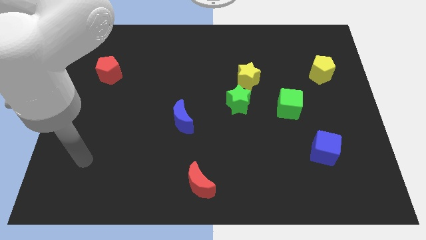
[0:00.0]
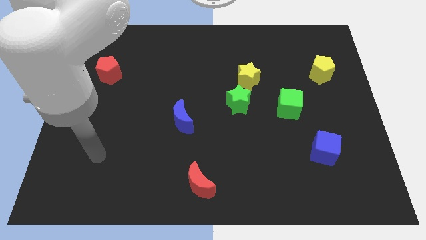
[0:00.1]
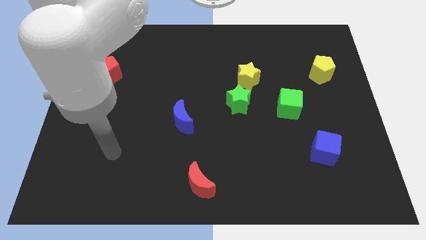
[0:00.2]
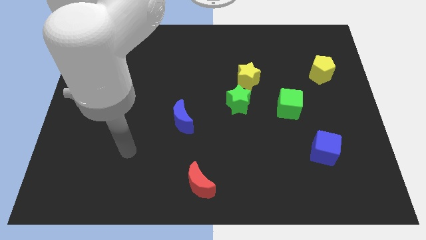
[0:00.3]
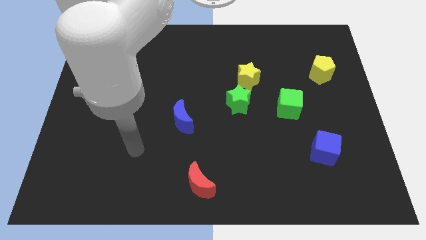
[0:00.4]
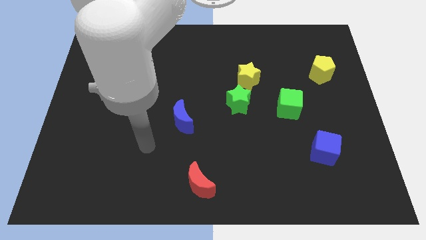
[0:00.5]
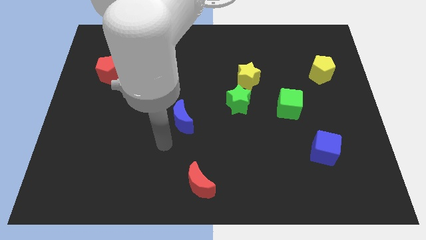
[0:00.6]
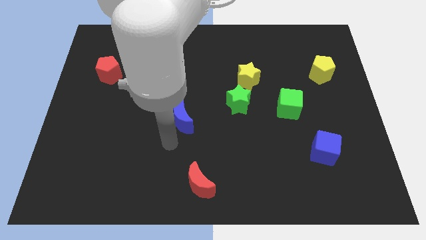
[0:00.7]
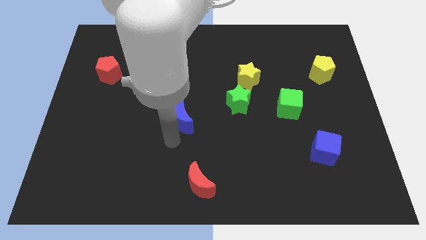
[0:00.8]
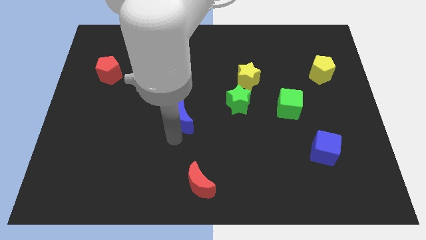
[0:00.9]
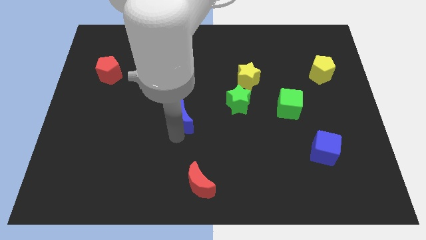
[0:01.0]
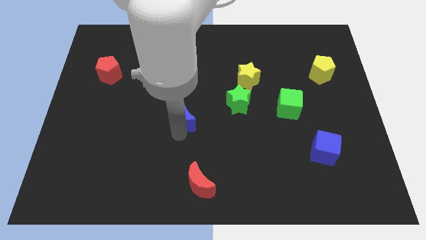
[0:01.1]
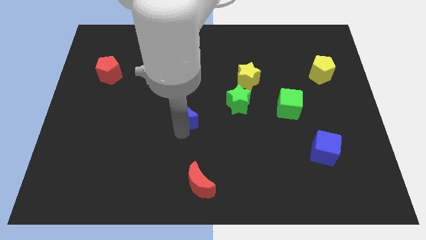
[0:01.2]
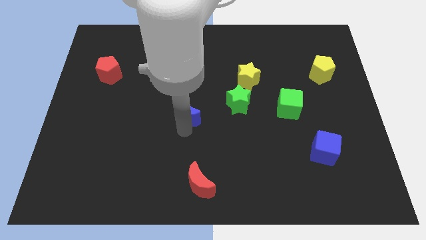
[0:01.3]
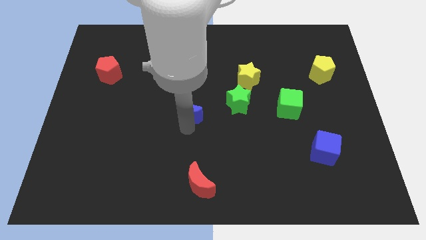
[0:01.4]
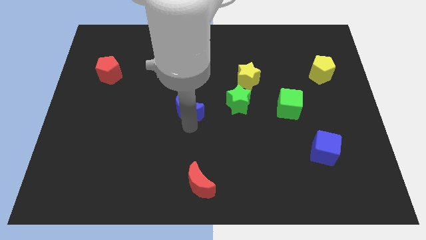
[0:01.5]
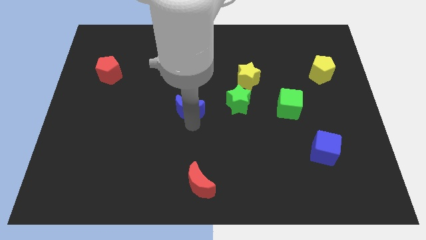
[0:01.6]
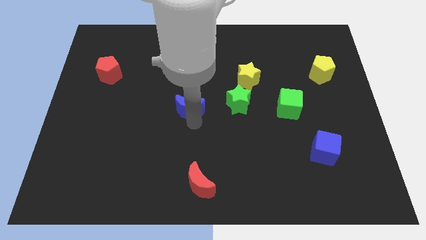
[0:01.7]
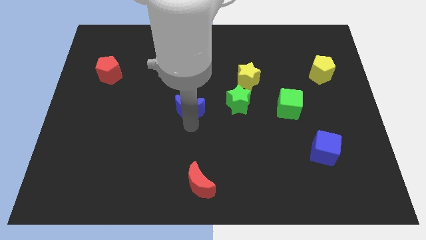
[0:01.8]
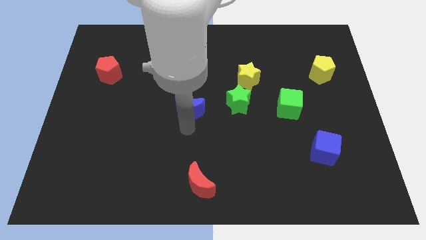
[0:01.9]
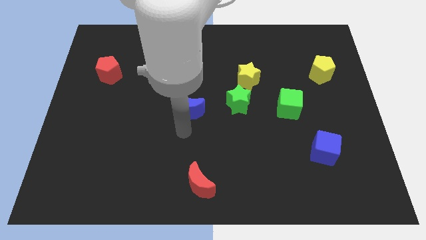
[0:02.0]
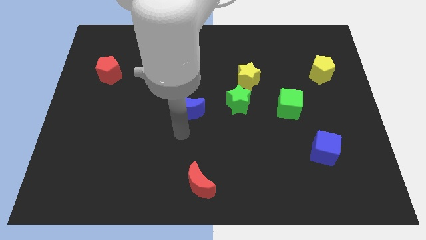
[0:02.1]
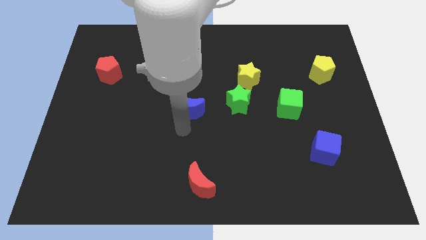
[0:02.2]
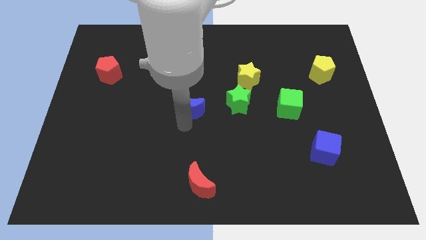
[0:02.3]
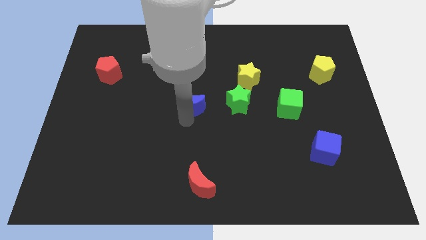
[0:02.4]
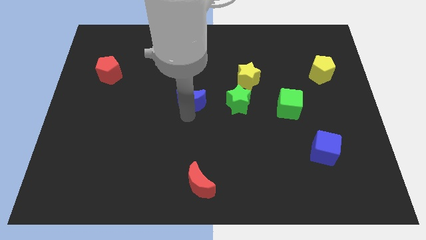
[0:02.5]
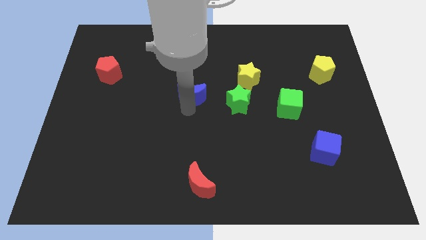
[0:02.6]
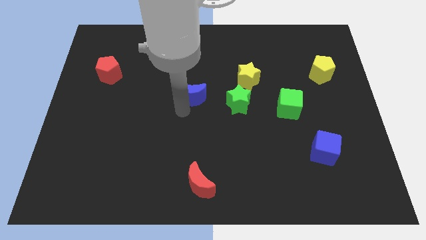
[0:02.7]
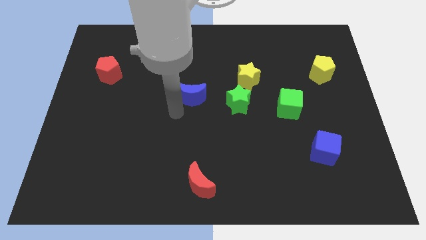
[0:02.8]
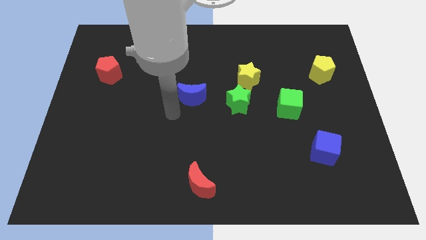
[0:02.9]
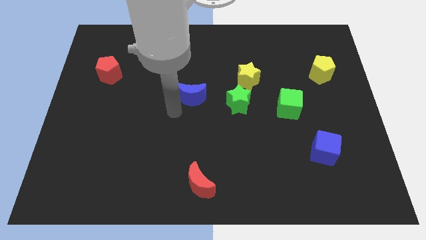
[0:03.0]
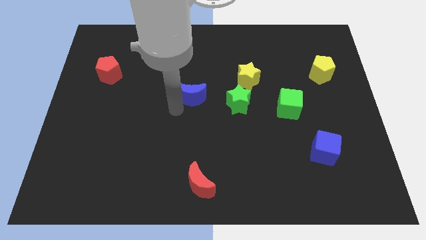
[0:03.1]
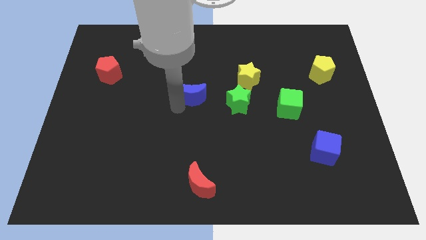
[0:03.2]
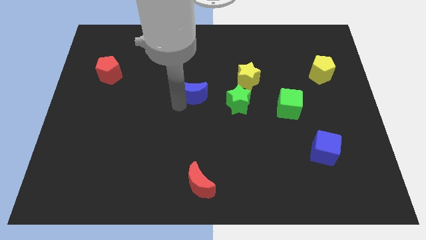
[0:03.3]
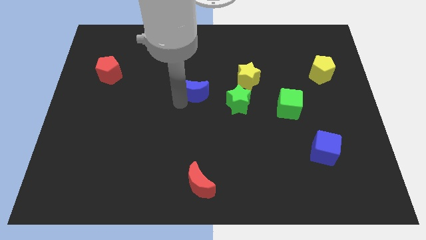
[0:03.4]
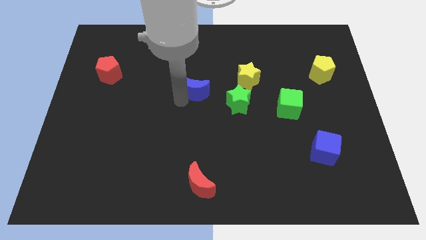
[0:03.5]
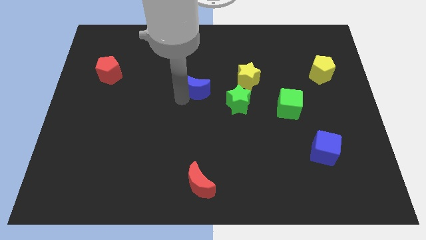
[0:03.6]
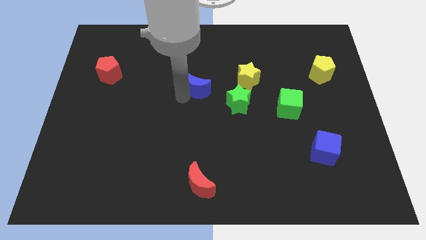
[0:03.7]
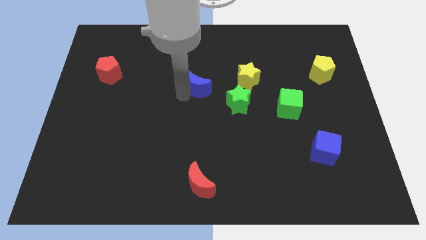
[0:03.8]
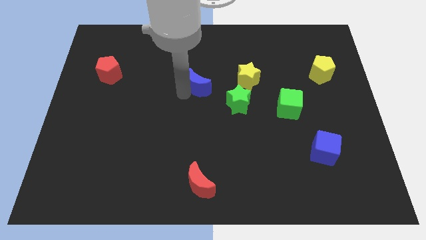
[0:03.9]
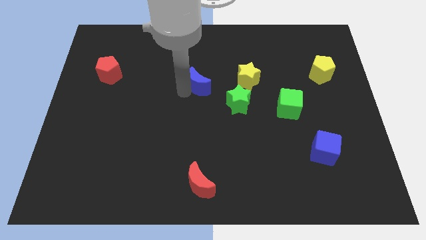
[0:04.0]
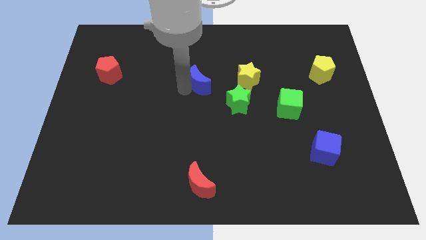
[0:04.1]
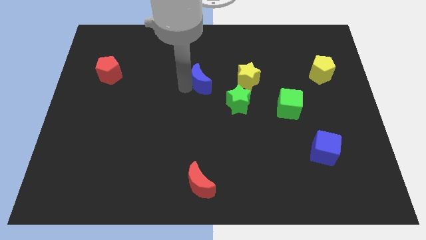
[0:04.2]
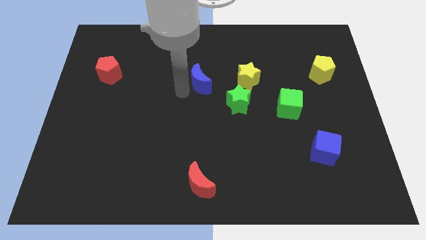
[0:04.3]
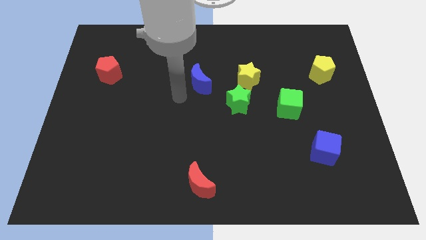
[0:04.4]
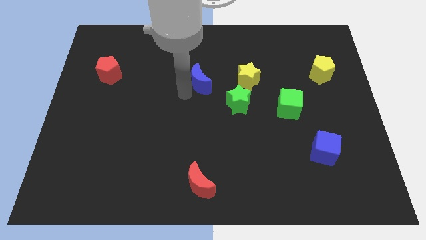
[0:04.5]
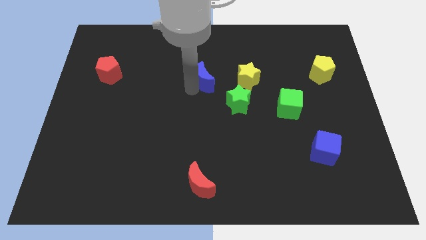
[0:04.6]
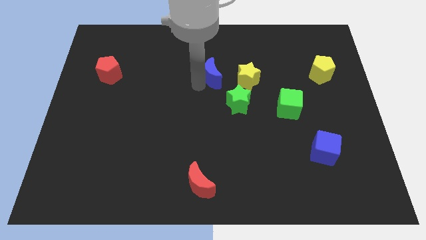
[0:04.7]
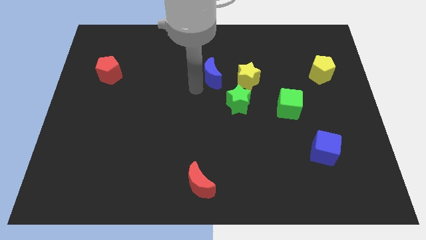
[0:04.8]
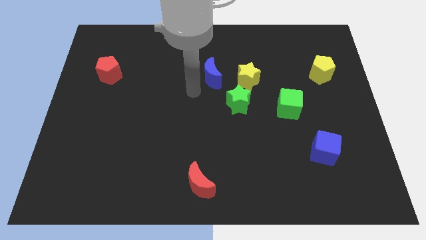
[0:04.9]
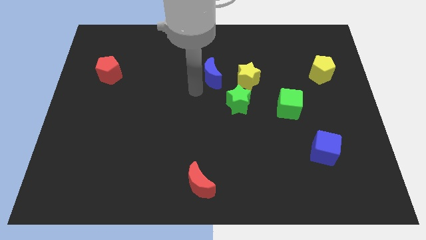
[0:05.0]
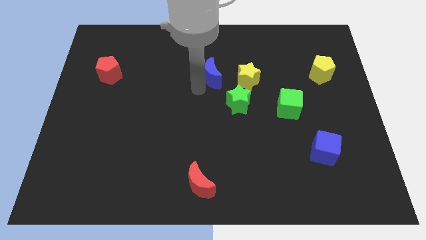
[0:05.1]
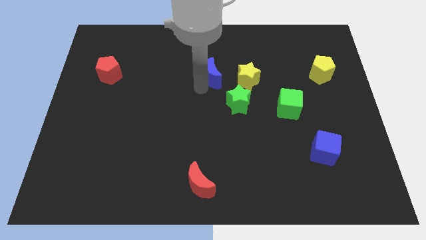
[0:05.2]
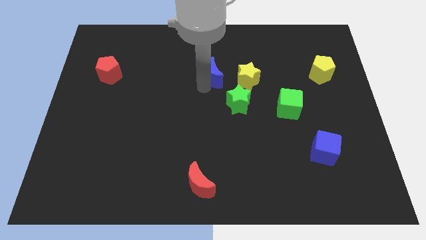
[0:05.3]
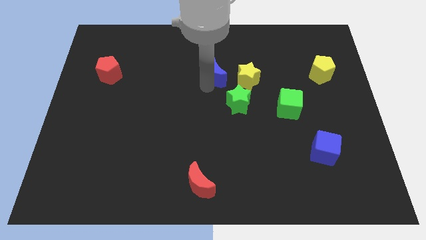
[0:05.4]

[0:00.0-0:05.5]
slide the blue moon diagonally up and to the left of the yellow star

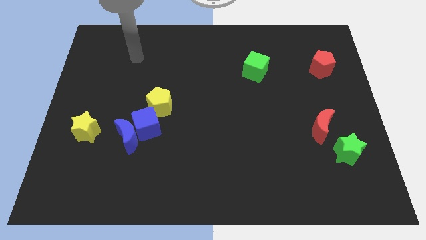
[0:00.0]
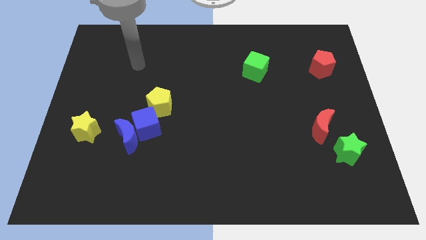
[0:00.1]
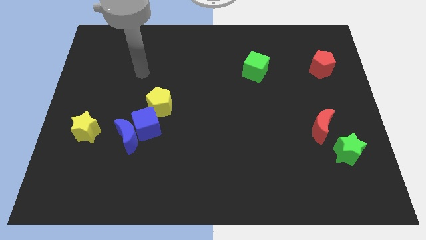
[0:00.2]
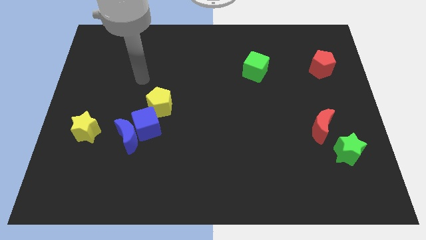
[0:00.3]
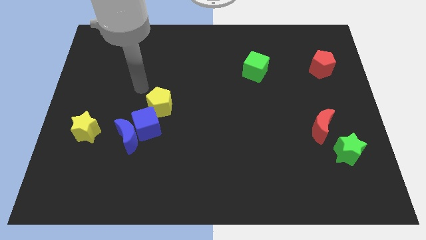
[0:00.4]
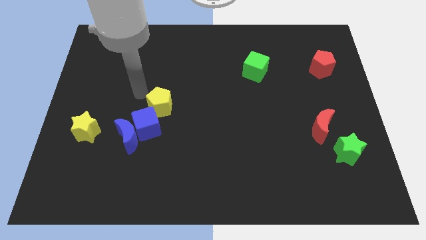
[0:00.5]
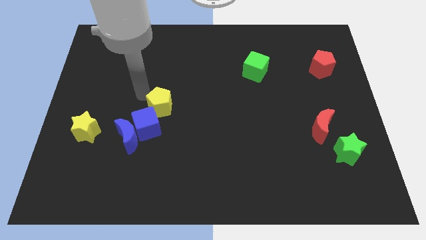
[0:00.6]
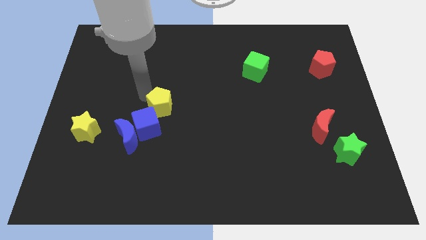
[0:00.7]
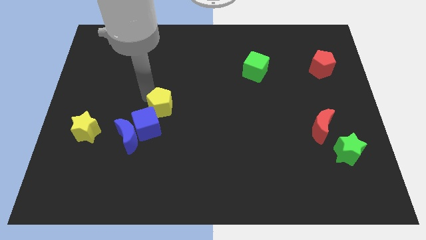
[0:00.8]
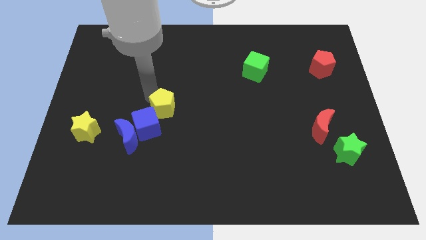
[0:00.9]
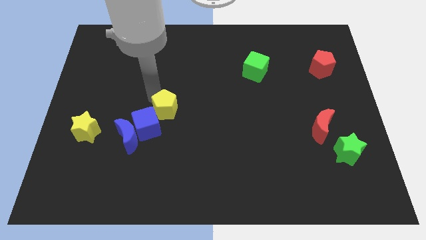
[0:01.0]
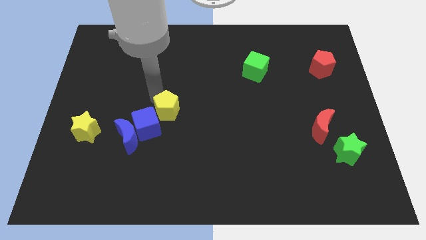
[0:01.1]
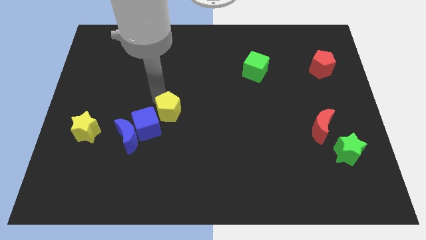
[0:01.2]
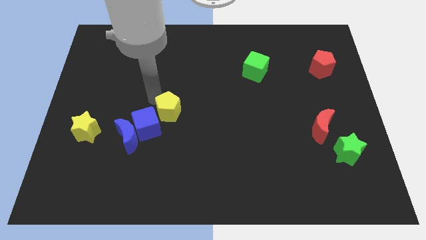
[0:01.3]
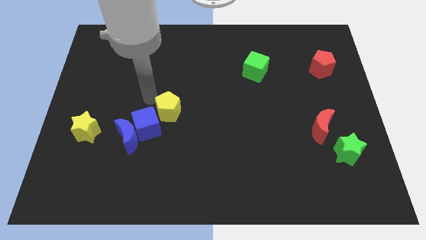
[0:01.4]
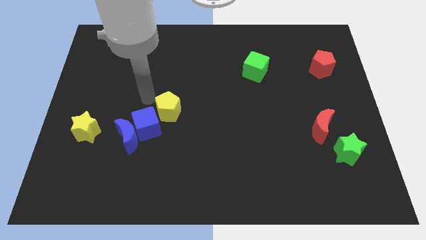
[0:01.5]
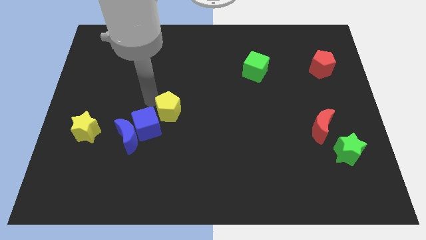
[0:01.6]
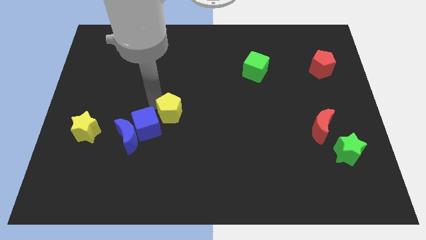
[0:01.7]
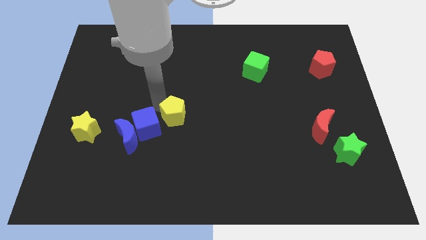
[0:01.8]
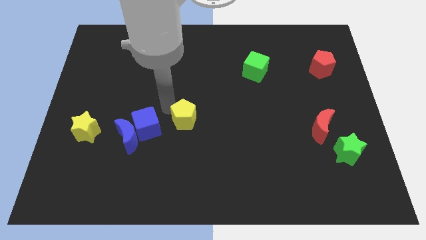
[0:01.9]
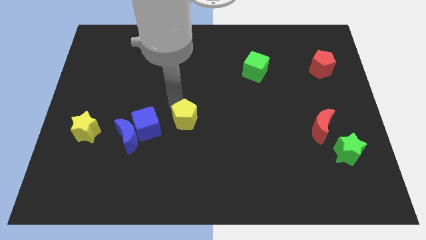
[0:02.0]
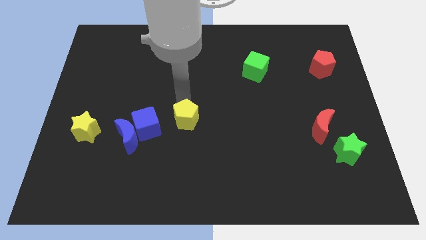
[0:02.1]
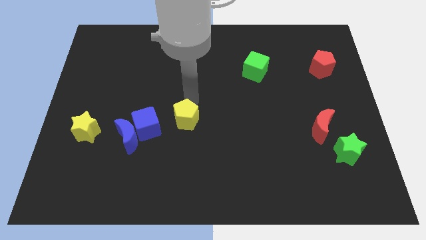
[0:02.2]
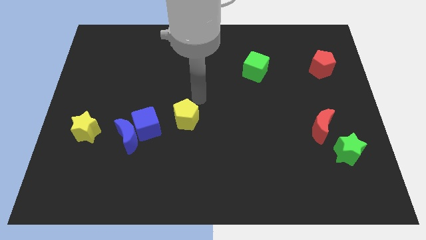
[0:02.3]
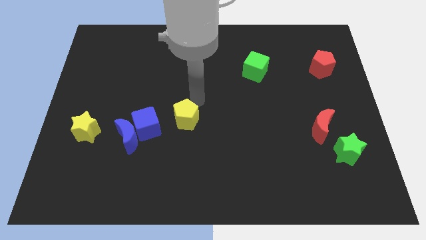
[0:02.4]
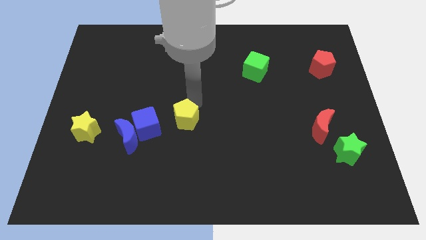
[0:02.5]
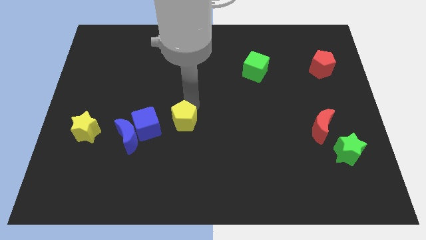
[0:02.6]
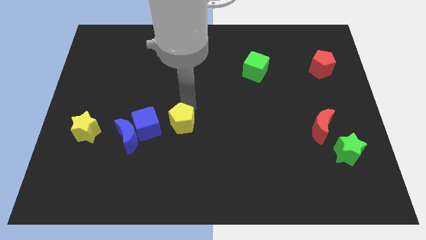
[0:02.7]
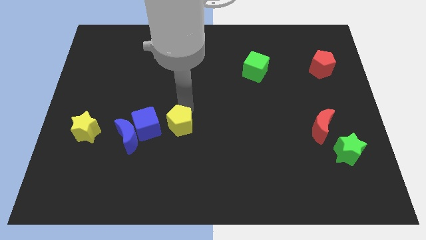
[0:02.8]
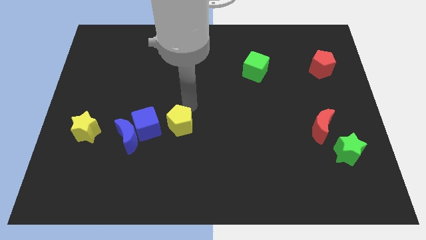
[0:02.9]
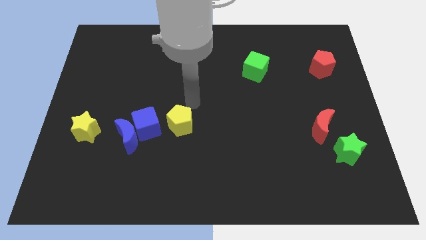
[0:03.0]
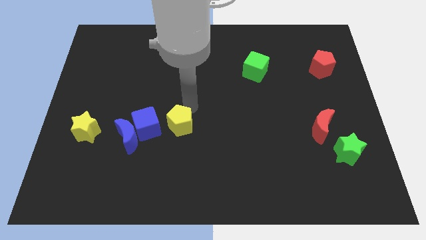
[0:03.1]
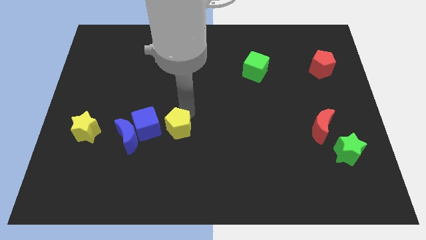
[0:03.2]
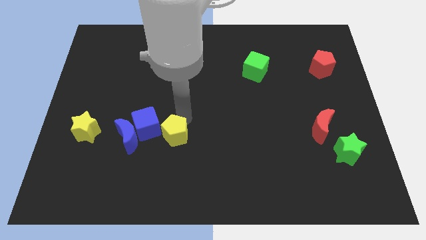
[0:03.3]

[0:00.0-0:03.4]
slide the yellow pentagon to the bottom right of the blue cube
